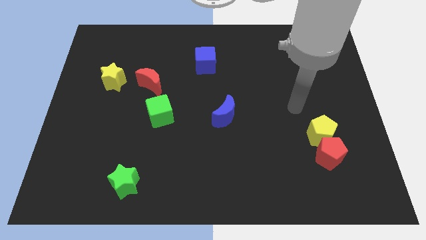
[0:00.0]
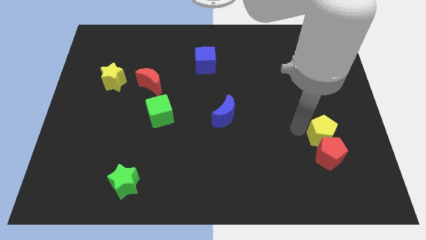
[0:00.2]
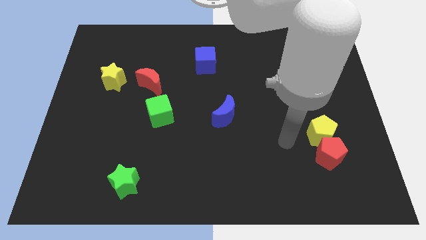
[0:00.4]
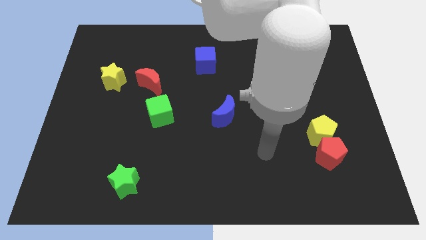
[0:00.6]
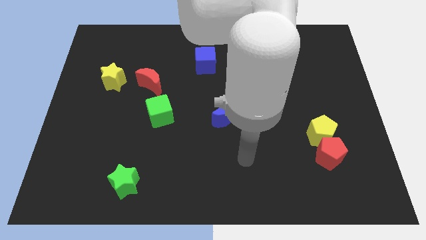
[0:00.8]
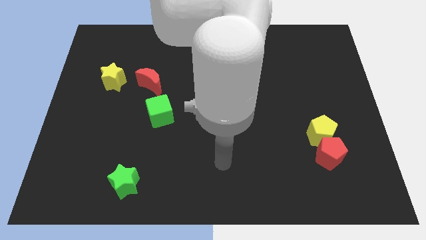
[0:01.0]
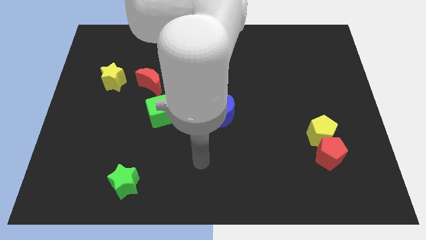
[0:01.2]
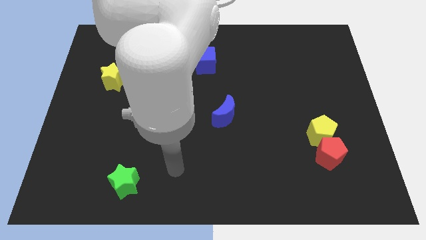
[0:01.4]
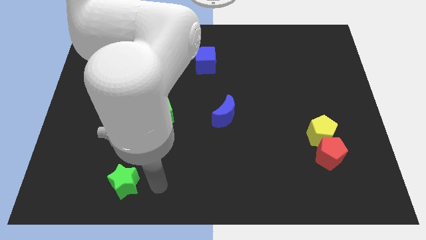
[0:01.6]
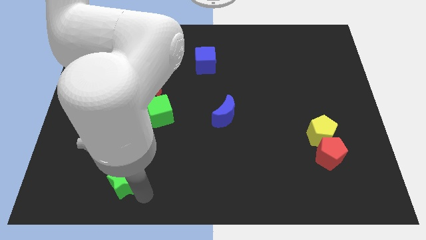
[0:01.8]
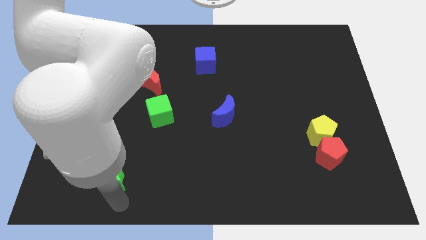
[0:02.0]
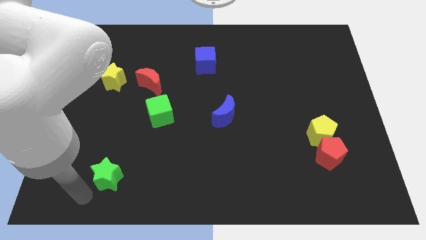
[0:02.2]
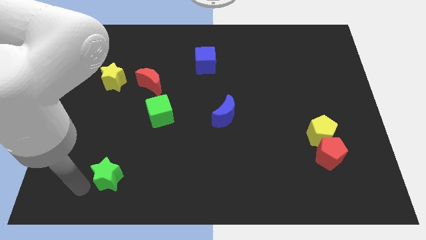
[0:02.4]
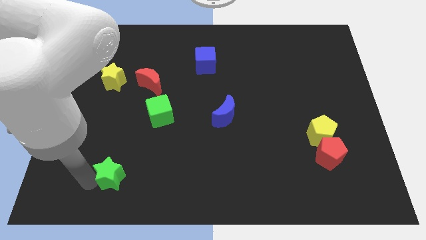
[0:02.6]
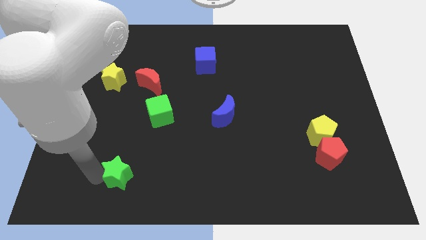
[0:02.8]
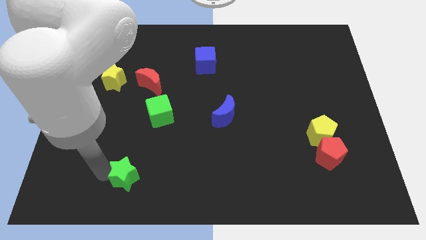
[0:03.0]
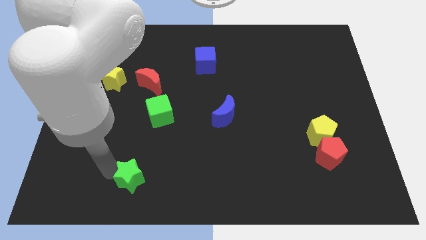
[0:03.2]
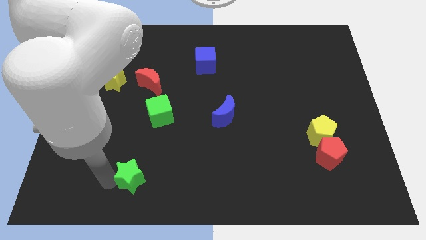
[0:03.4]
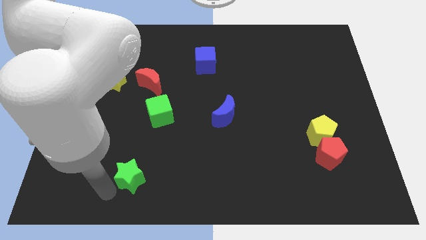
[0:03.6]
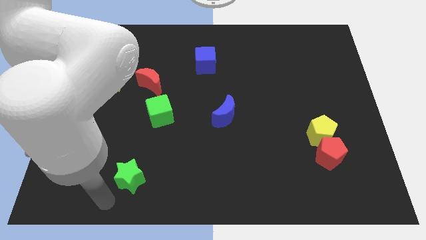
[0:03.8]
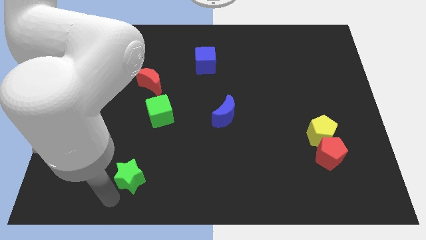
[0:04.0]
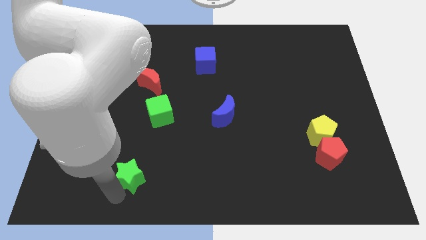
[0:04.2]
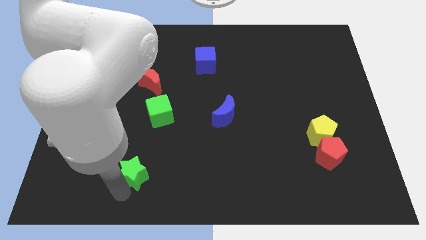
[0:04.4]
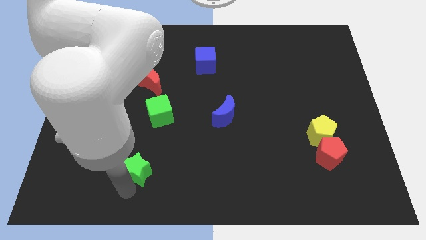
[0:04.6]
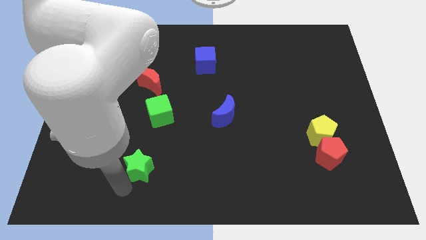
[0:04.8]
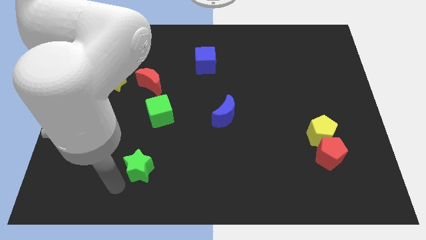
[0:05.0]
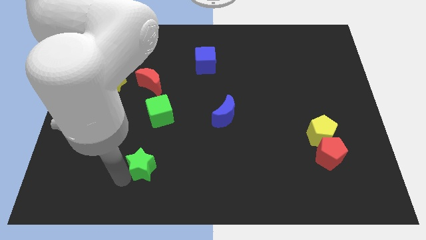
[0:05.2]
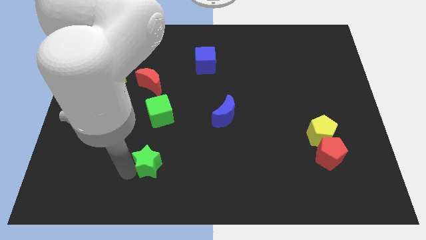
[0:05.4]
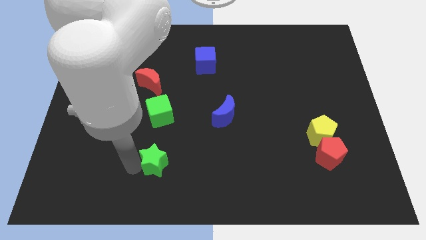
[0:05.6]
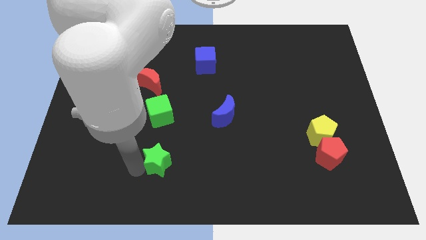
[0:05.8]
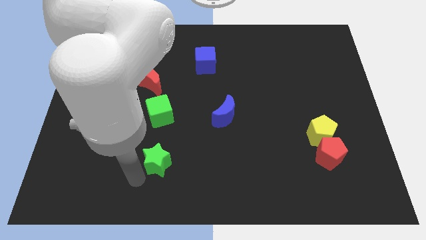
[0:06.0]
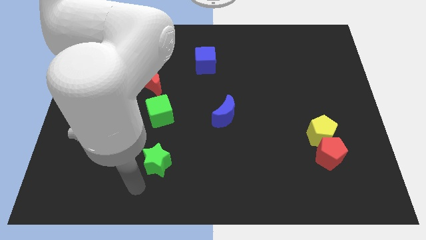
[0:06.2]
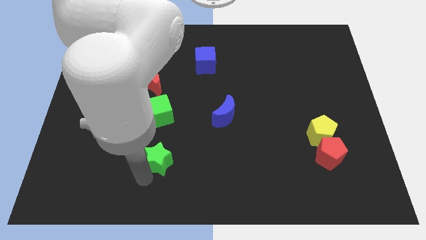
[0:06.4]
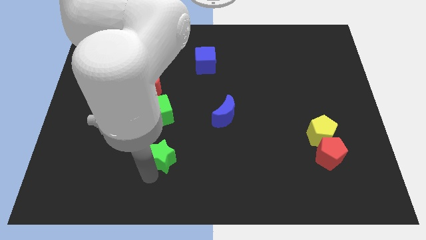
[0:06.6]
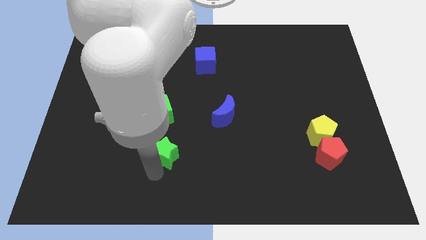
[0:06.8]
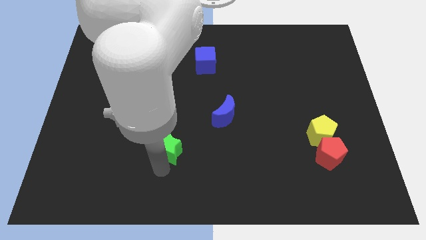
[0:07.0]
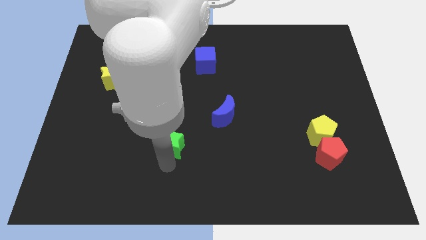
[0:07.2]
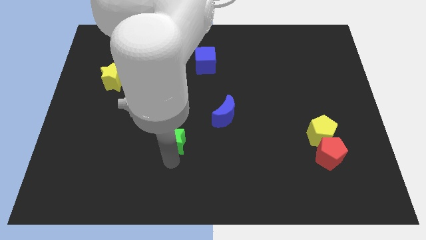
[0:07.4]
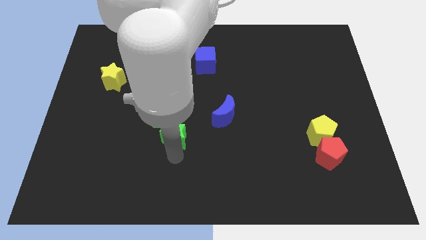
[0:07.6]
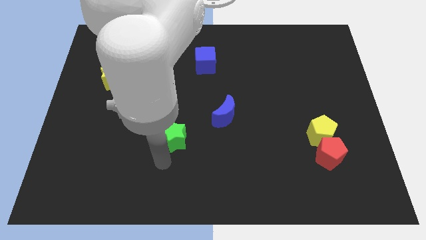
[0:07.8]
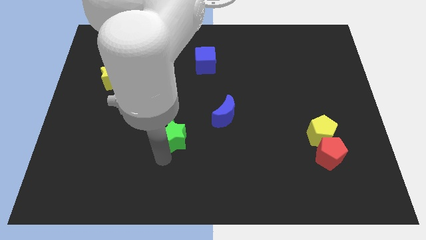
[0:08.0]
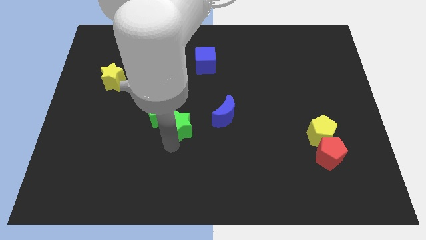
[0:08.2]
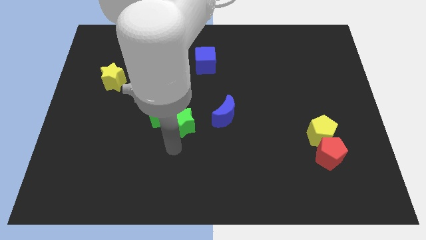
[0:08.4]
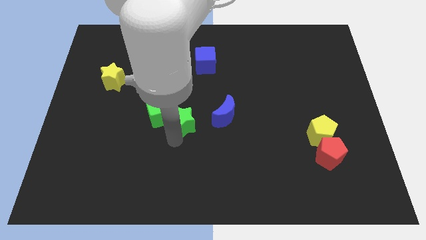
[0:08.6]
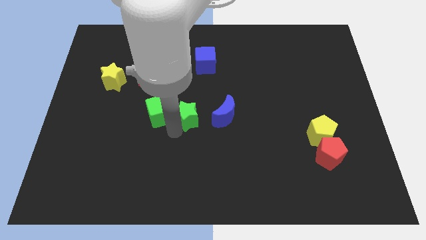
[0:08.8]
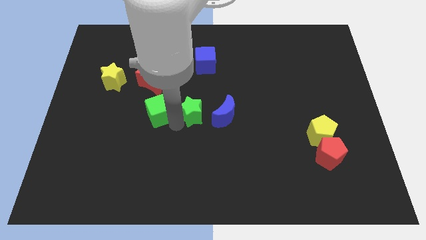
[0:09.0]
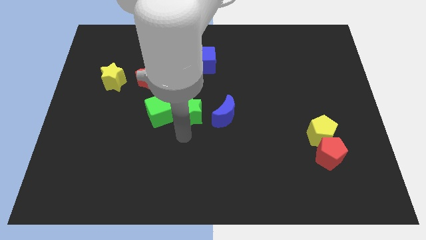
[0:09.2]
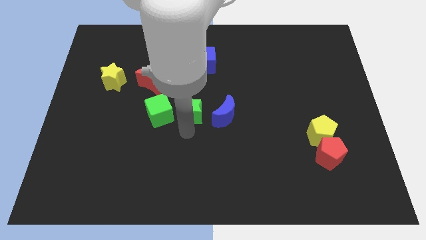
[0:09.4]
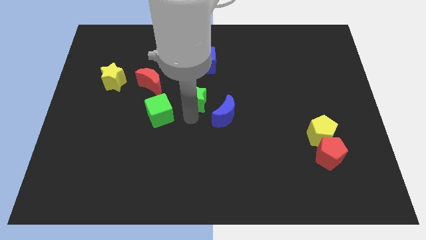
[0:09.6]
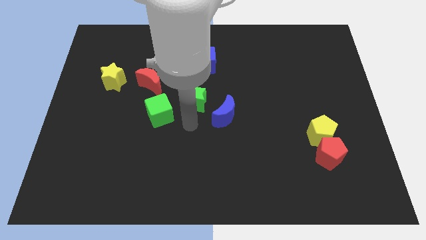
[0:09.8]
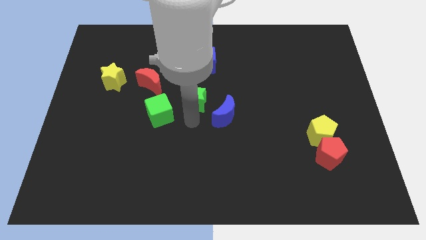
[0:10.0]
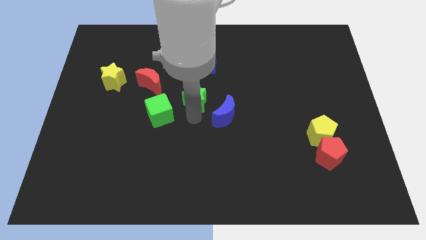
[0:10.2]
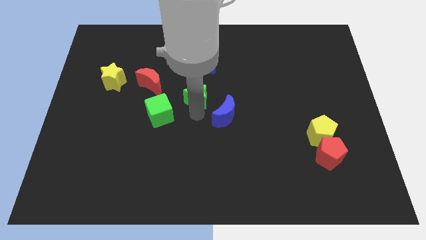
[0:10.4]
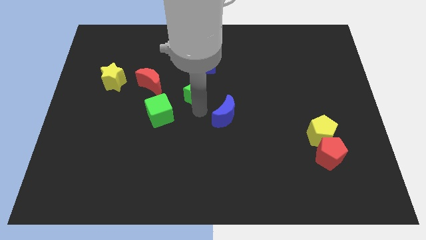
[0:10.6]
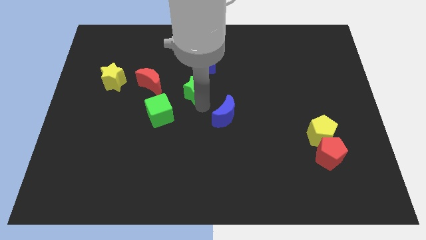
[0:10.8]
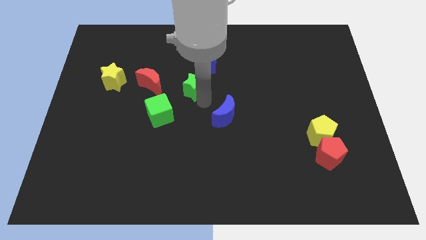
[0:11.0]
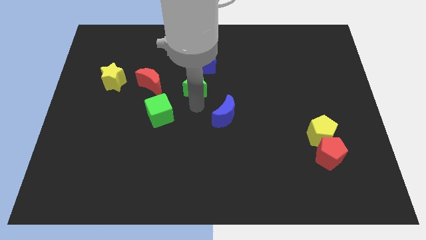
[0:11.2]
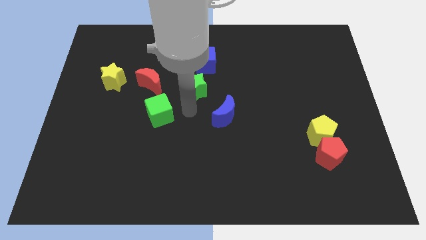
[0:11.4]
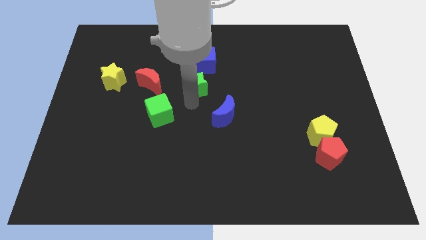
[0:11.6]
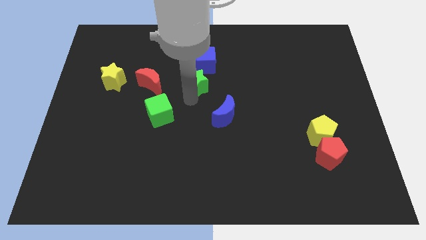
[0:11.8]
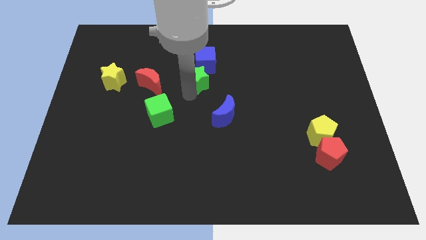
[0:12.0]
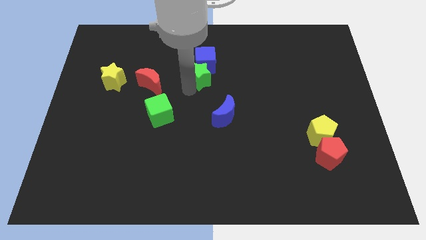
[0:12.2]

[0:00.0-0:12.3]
put the green star next to the blue cube

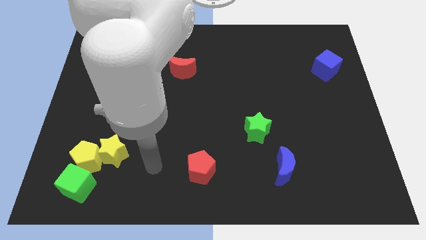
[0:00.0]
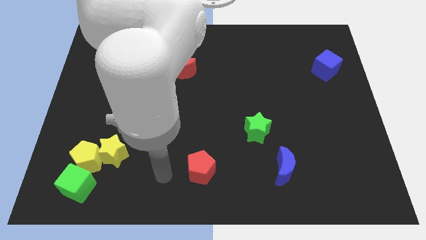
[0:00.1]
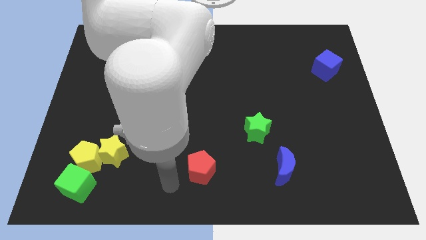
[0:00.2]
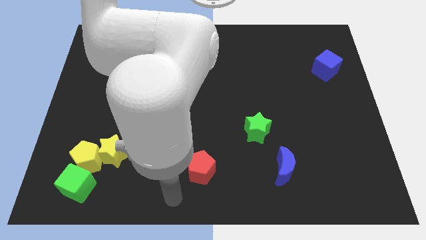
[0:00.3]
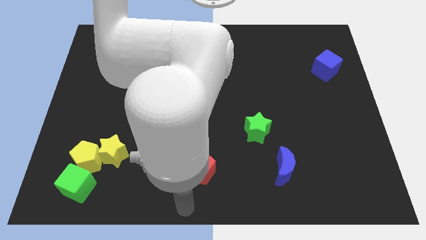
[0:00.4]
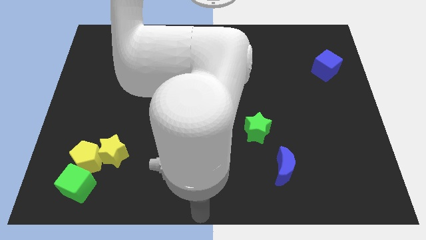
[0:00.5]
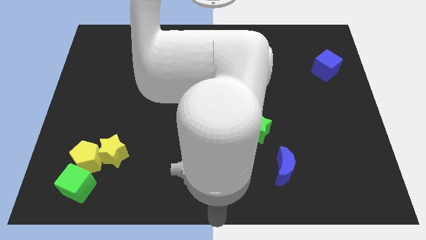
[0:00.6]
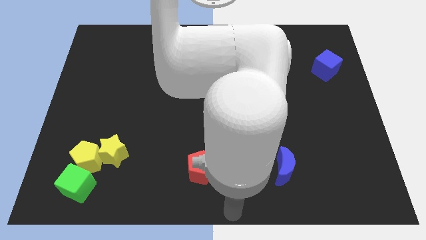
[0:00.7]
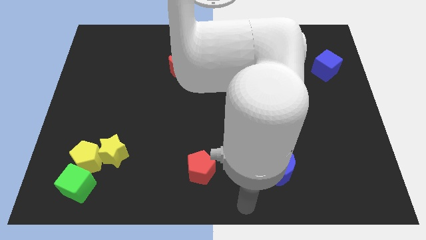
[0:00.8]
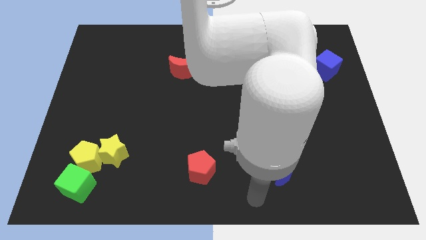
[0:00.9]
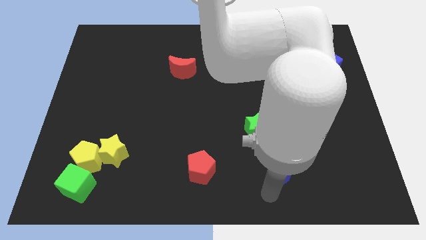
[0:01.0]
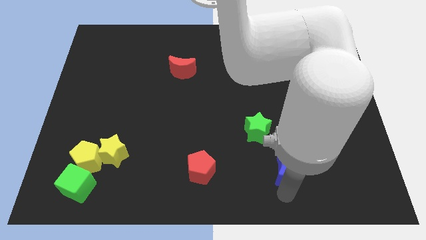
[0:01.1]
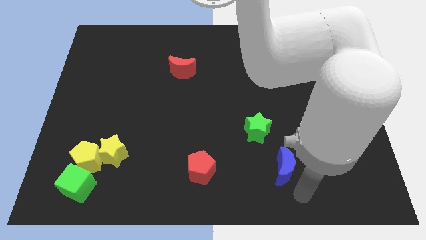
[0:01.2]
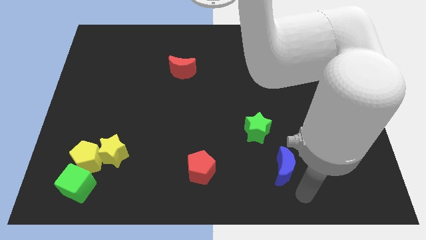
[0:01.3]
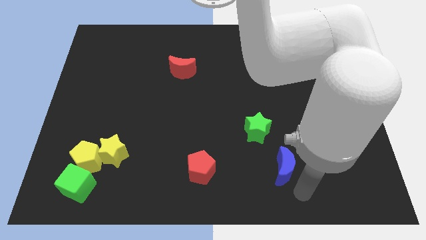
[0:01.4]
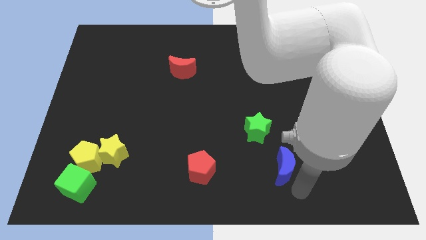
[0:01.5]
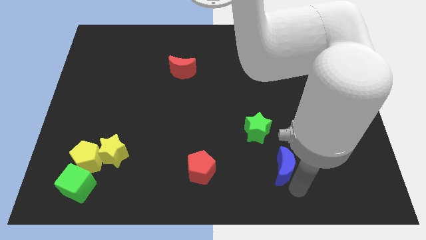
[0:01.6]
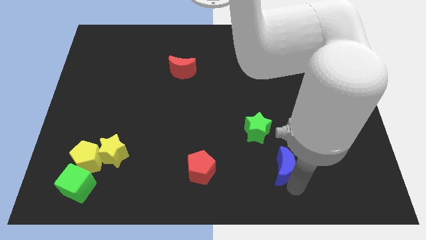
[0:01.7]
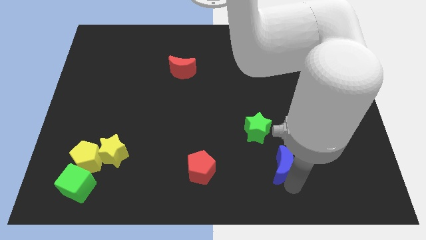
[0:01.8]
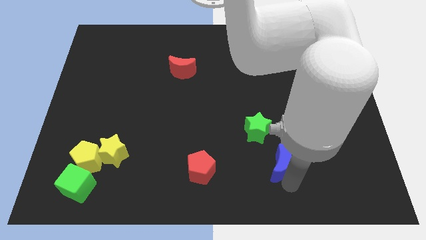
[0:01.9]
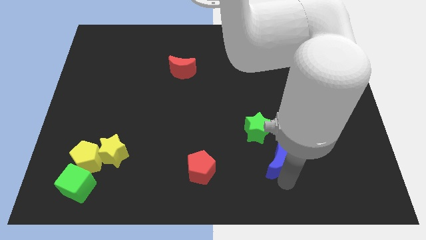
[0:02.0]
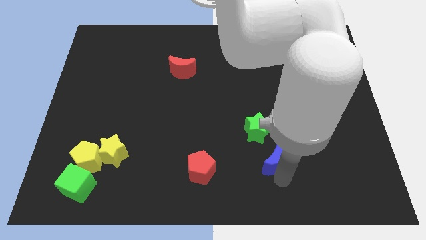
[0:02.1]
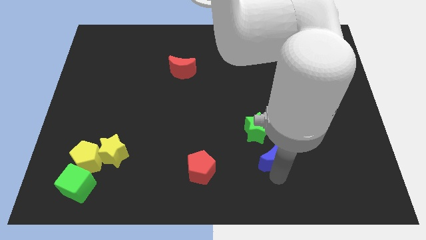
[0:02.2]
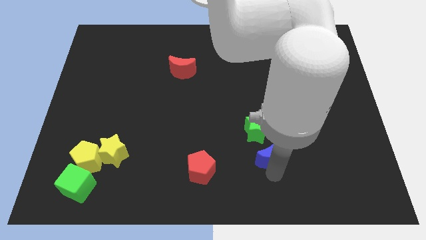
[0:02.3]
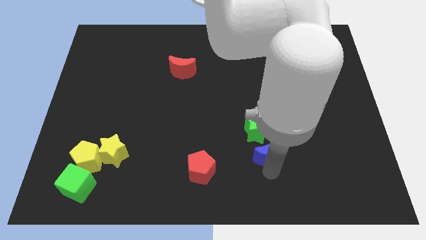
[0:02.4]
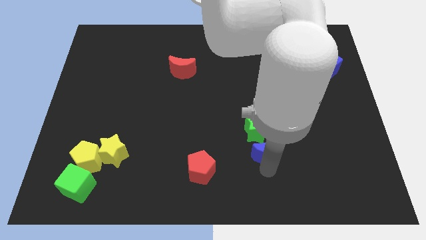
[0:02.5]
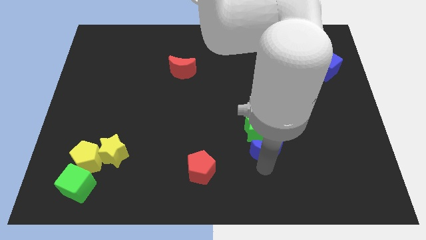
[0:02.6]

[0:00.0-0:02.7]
push the blue moon close to the green star
